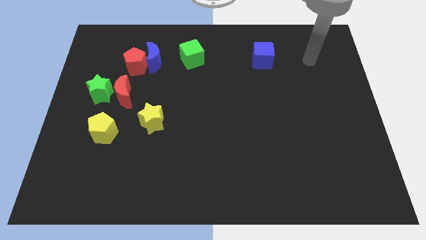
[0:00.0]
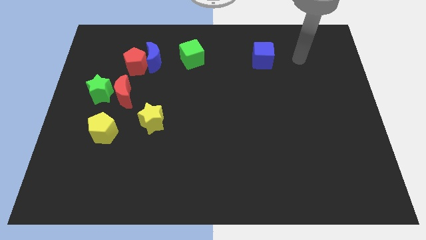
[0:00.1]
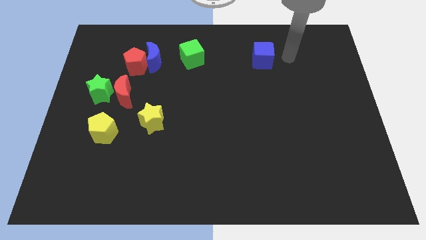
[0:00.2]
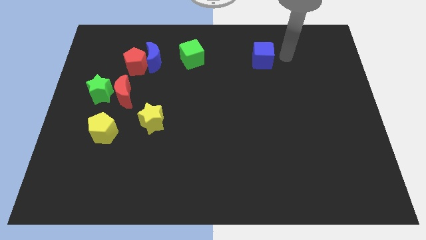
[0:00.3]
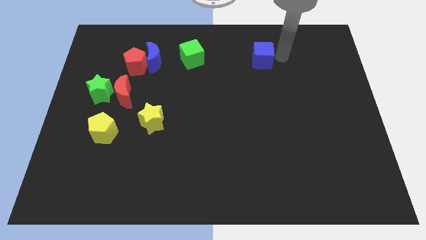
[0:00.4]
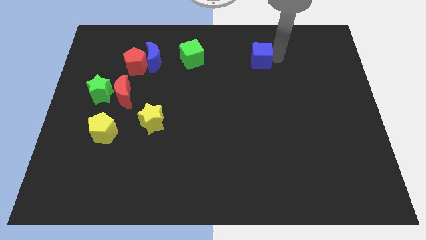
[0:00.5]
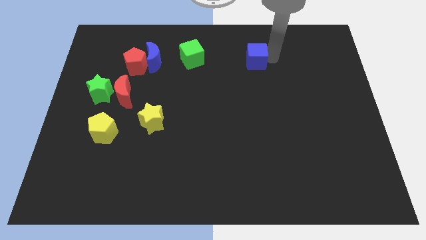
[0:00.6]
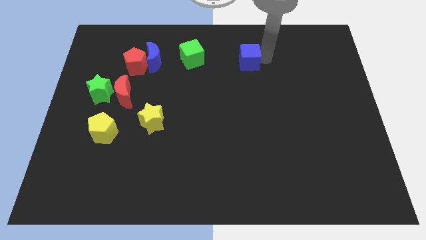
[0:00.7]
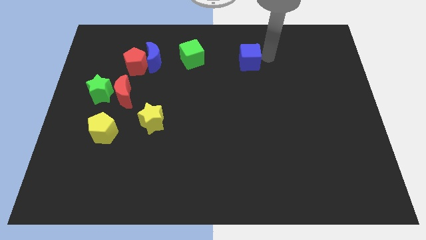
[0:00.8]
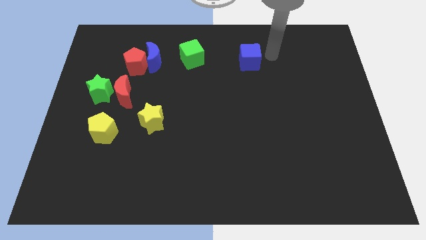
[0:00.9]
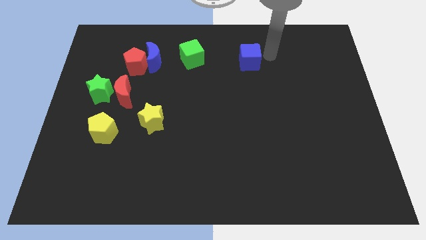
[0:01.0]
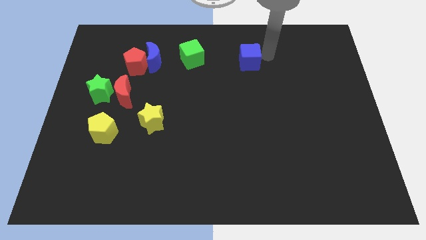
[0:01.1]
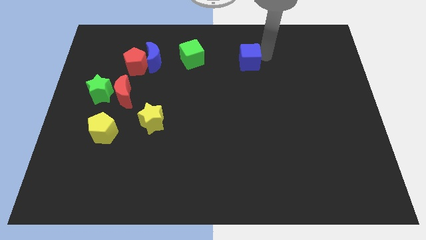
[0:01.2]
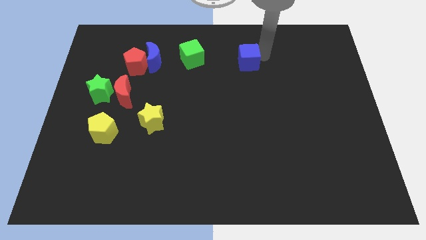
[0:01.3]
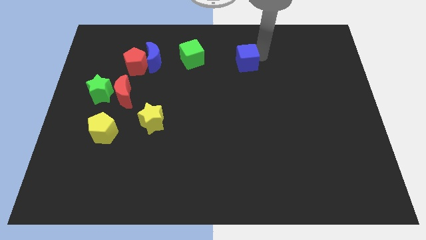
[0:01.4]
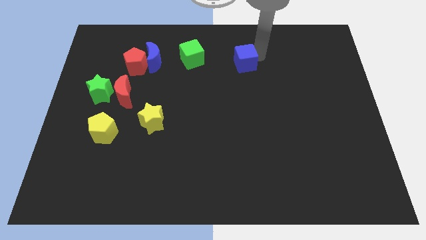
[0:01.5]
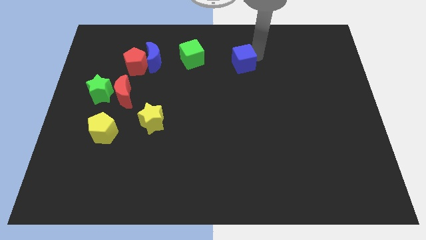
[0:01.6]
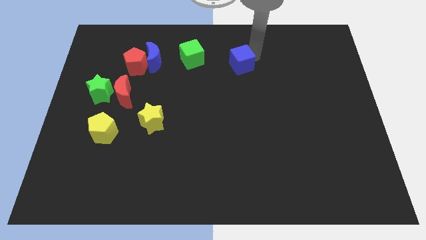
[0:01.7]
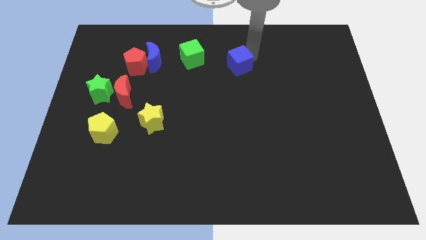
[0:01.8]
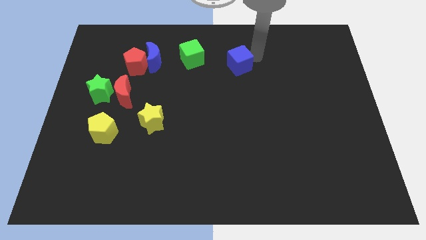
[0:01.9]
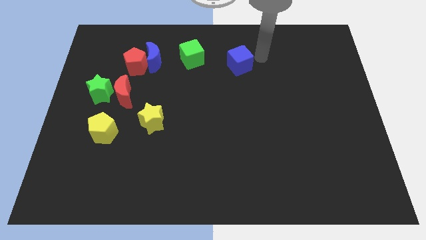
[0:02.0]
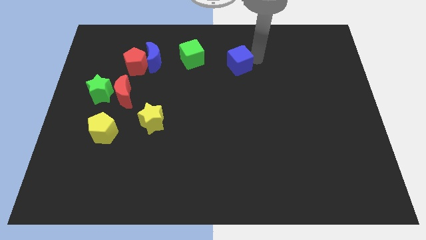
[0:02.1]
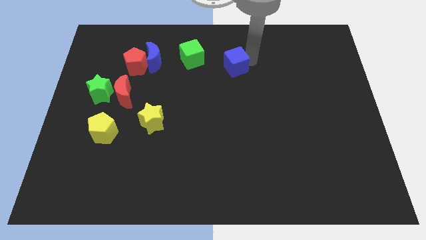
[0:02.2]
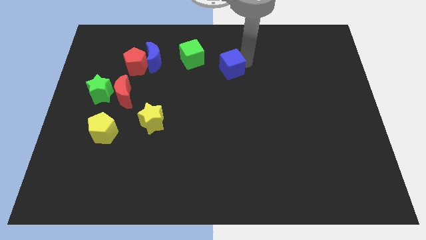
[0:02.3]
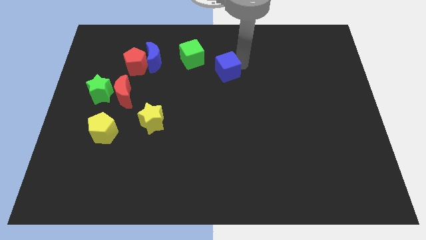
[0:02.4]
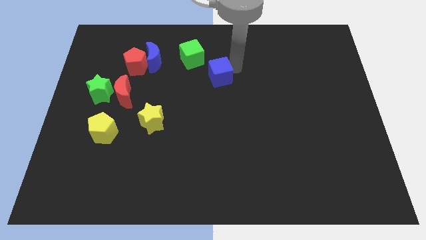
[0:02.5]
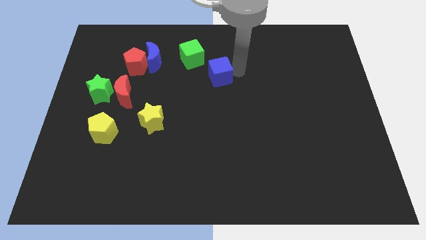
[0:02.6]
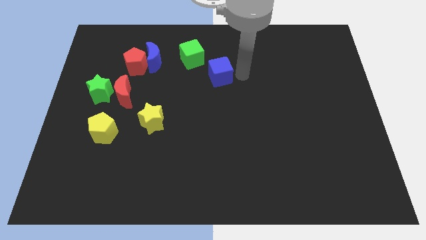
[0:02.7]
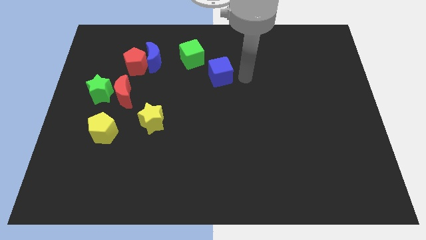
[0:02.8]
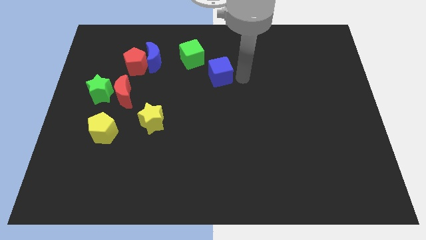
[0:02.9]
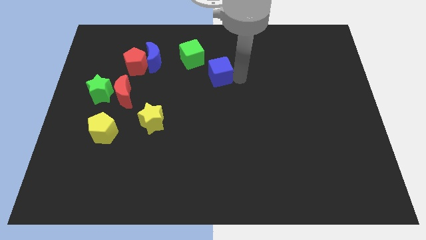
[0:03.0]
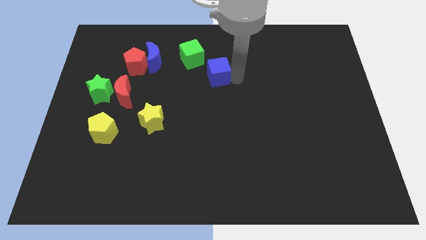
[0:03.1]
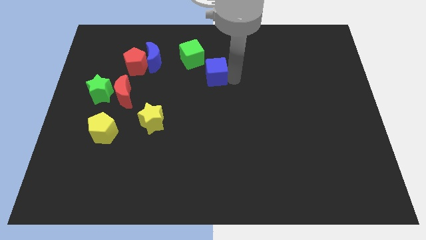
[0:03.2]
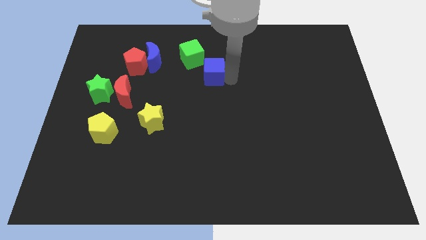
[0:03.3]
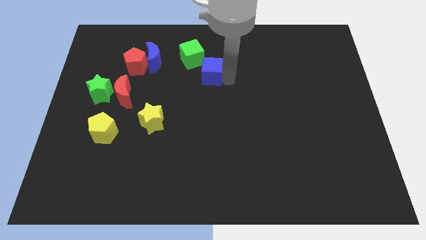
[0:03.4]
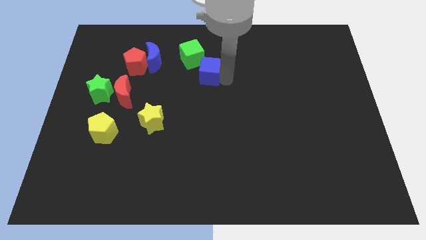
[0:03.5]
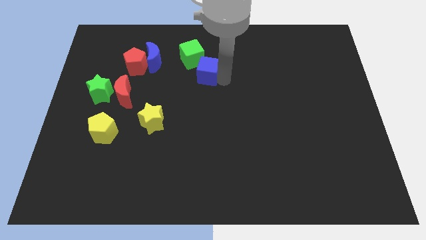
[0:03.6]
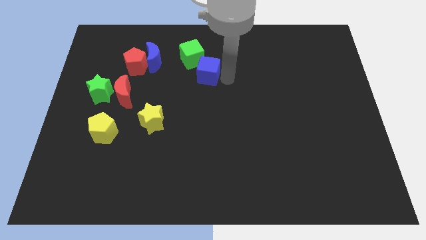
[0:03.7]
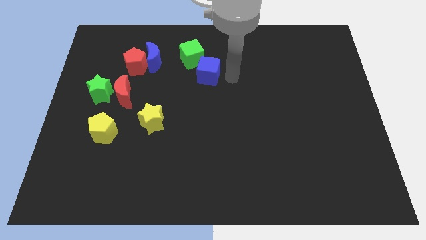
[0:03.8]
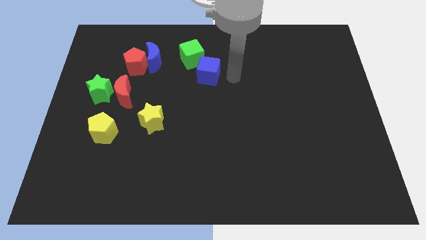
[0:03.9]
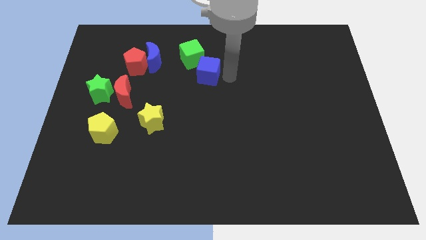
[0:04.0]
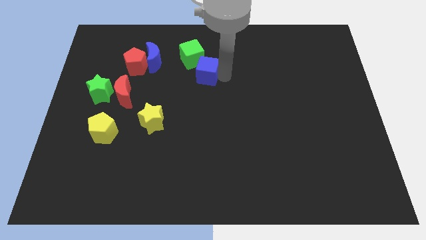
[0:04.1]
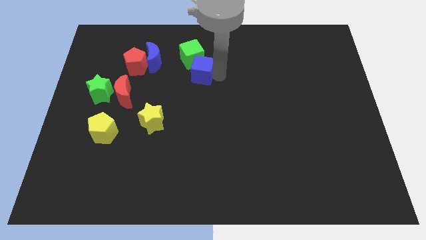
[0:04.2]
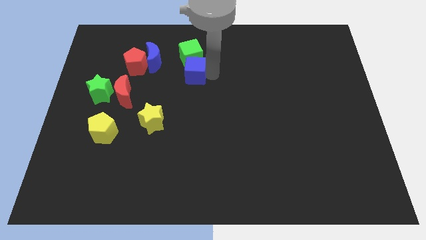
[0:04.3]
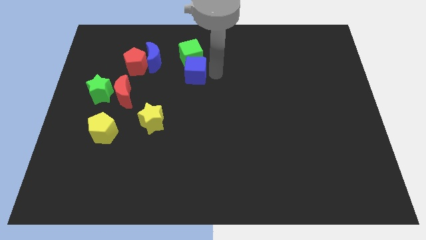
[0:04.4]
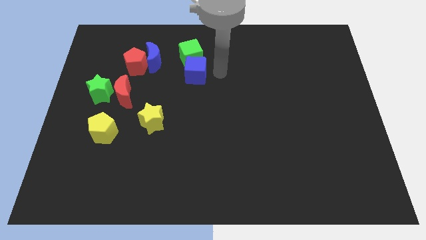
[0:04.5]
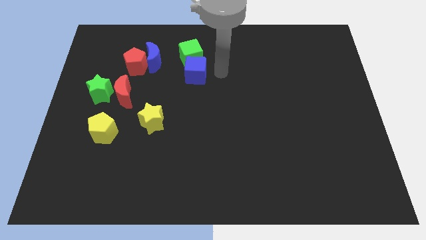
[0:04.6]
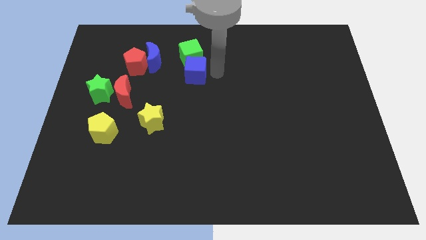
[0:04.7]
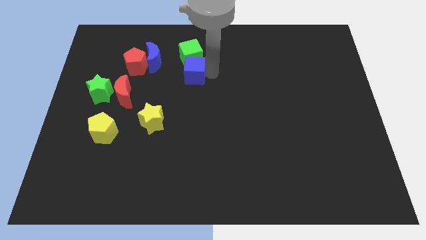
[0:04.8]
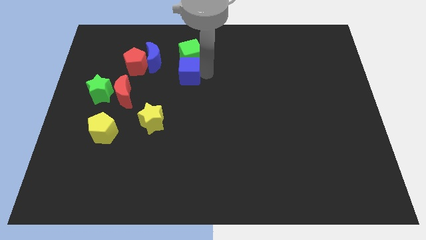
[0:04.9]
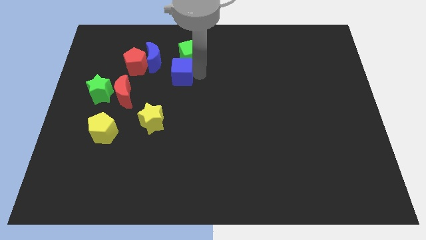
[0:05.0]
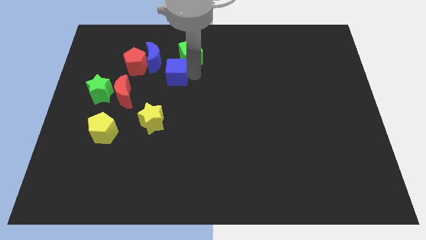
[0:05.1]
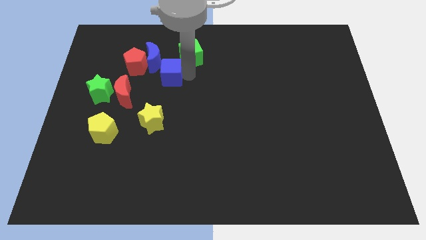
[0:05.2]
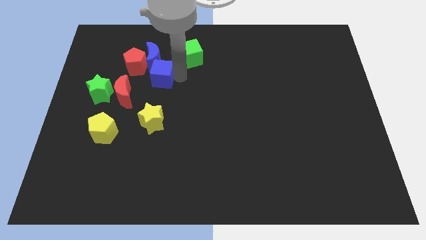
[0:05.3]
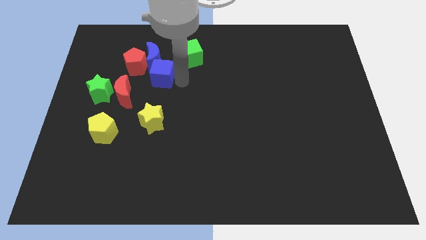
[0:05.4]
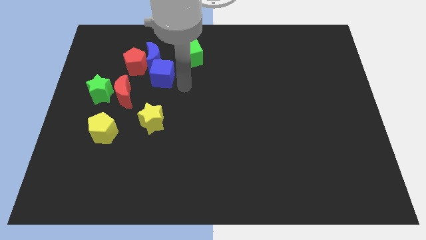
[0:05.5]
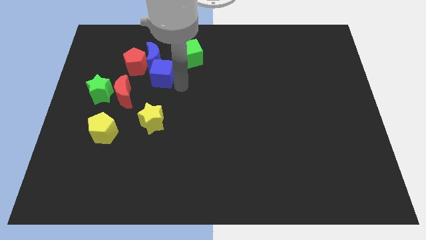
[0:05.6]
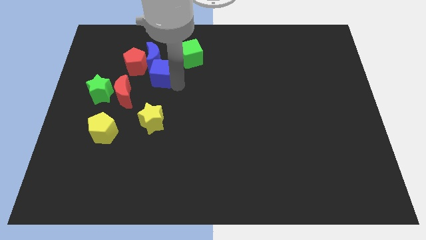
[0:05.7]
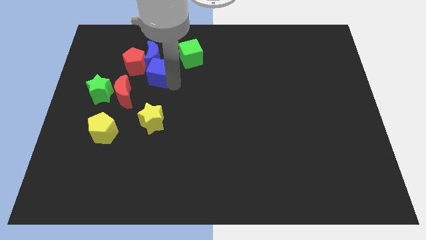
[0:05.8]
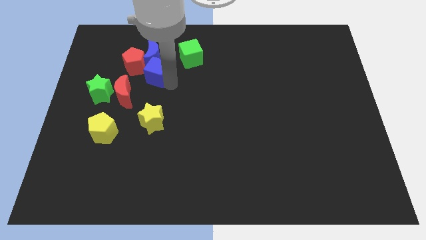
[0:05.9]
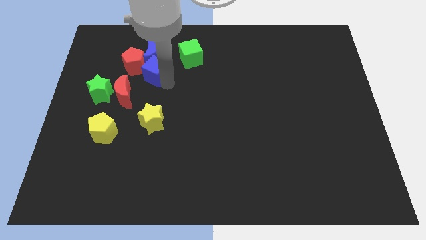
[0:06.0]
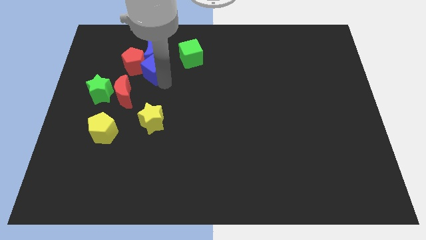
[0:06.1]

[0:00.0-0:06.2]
put the blue cube to the red pentagon

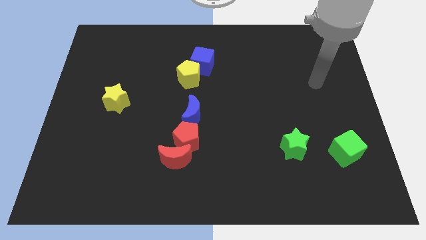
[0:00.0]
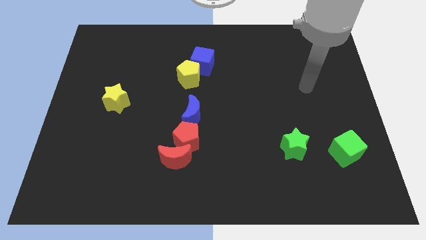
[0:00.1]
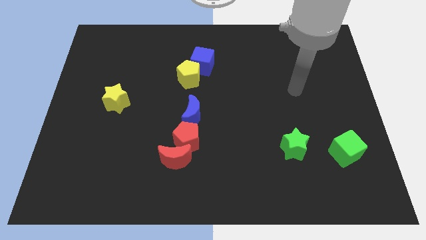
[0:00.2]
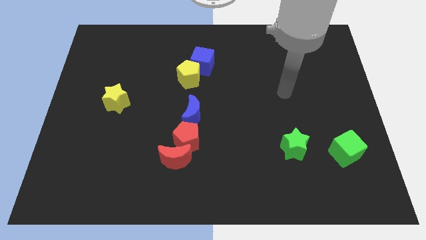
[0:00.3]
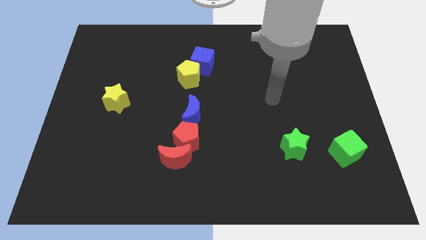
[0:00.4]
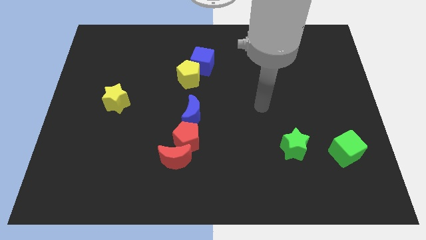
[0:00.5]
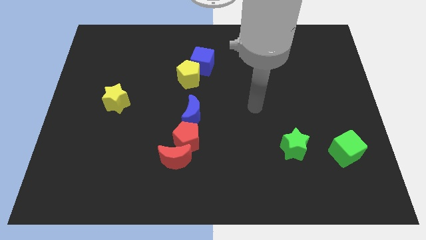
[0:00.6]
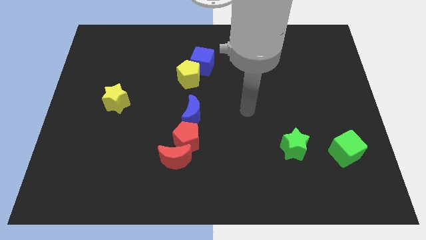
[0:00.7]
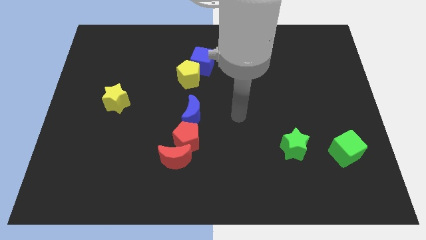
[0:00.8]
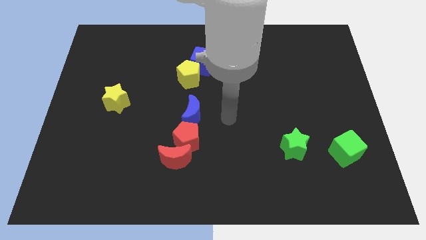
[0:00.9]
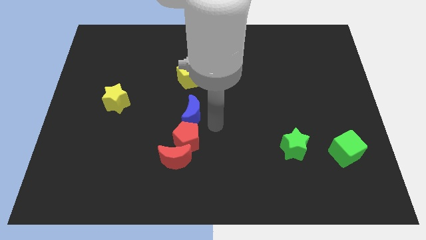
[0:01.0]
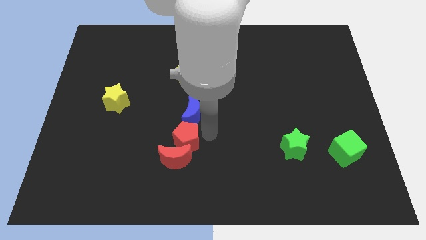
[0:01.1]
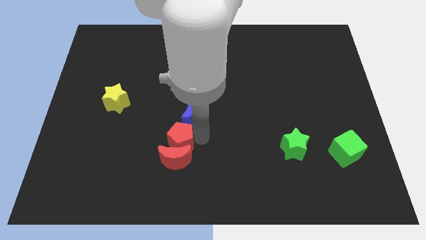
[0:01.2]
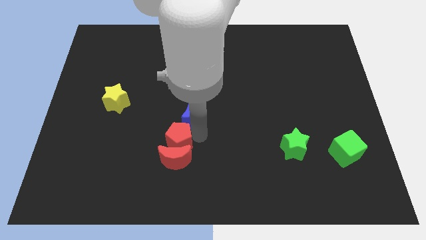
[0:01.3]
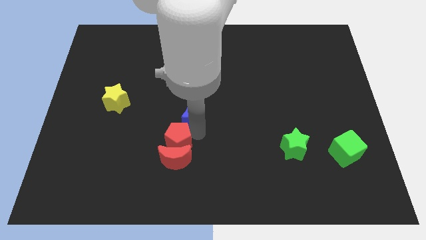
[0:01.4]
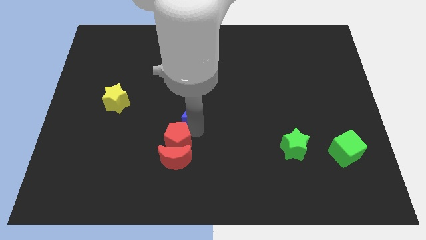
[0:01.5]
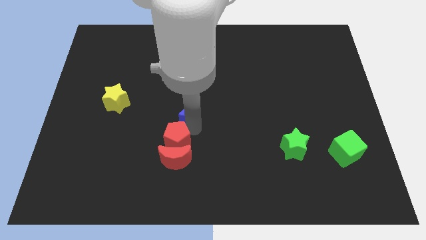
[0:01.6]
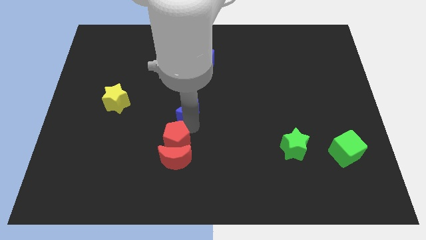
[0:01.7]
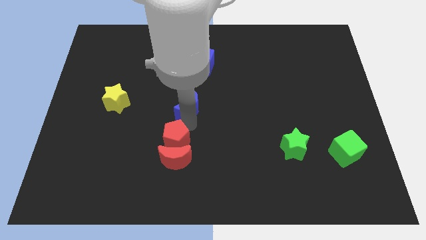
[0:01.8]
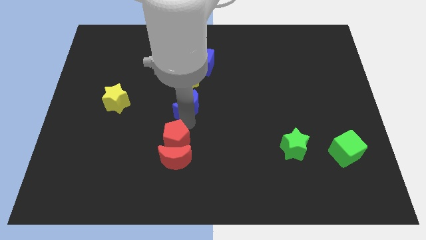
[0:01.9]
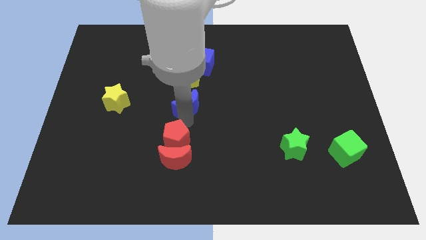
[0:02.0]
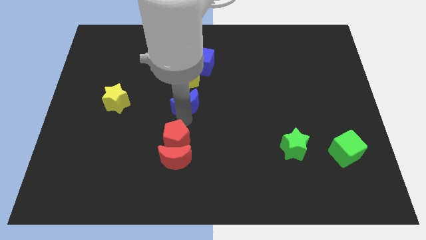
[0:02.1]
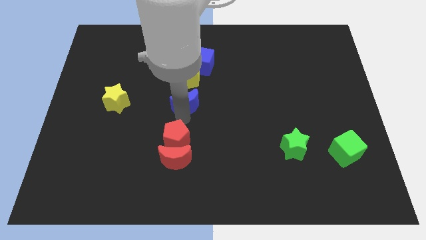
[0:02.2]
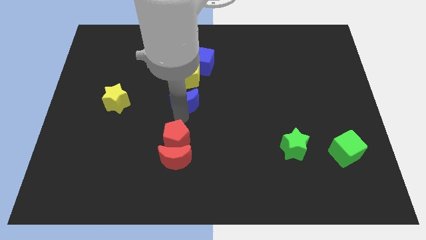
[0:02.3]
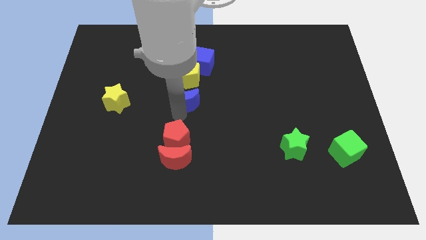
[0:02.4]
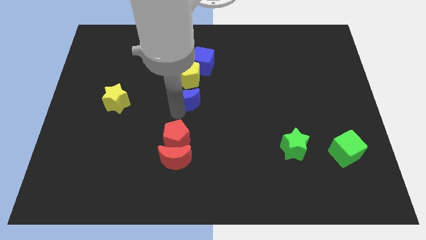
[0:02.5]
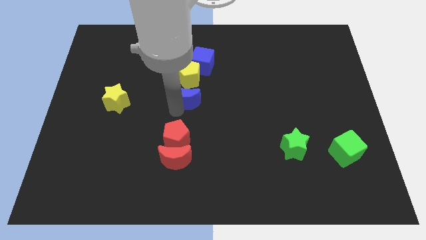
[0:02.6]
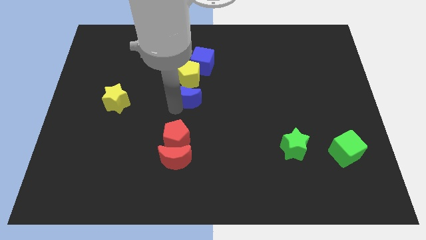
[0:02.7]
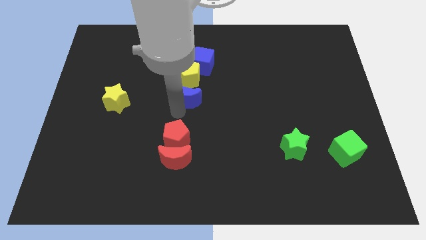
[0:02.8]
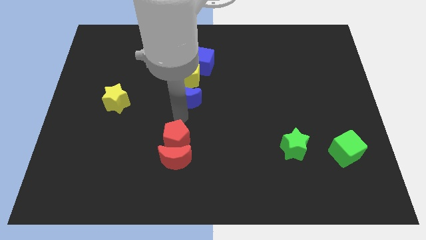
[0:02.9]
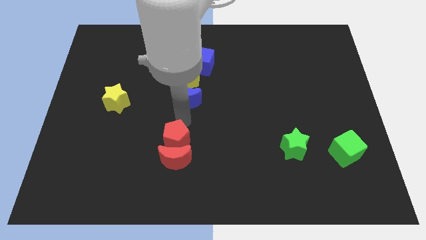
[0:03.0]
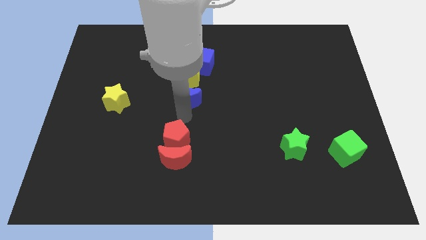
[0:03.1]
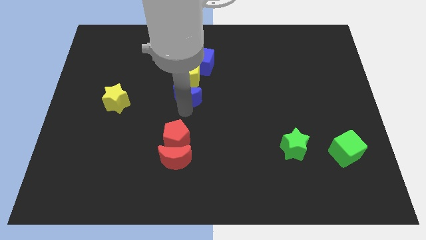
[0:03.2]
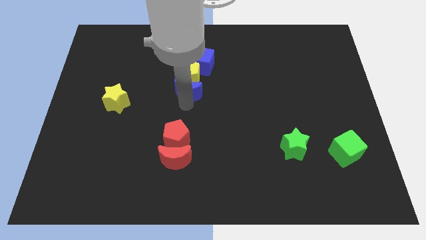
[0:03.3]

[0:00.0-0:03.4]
move the blue moon to the yellow pentagon
